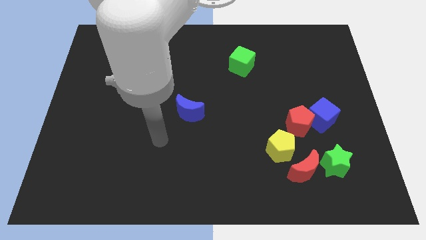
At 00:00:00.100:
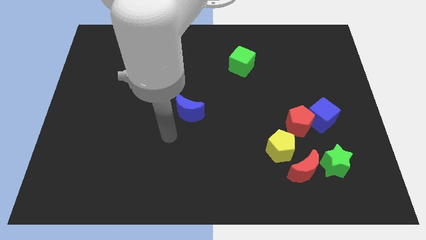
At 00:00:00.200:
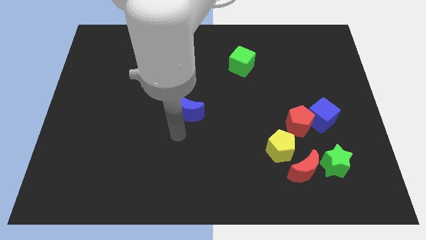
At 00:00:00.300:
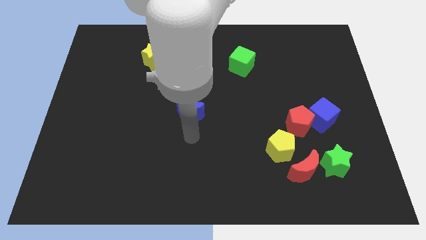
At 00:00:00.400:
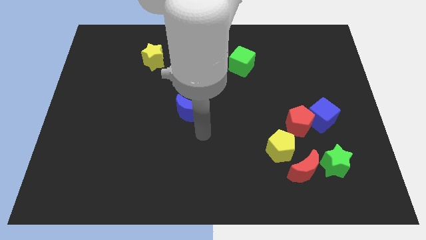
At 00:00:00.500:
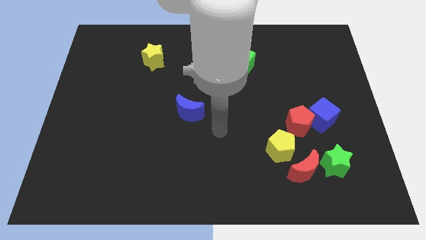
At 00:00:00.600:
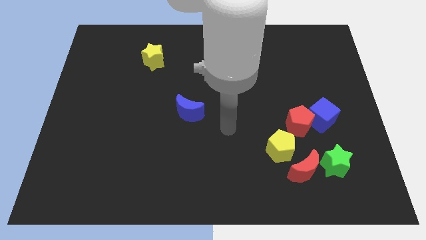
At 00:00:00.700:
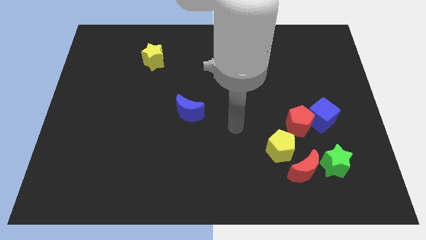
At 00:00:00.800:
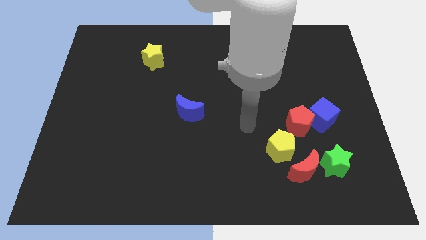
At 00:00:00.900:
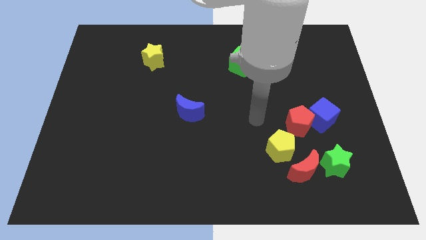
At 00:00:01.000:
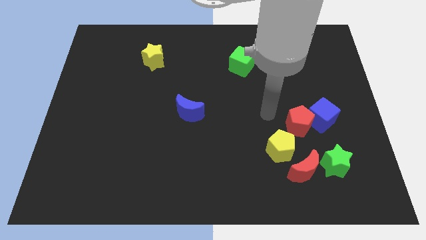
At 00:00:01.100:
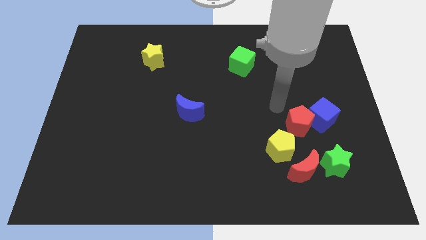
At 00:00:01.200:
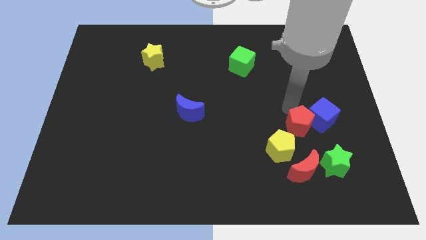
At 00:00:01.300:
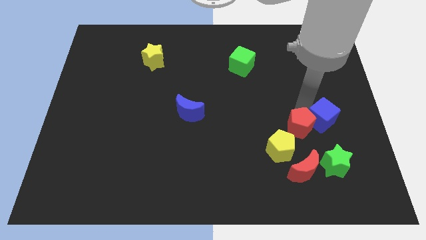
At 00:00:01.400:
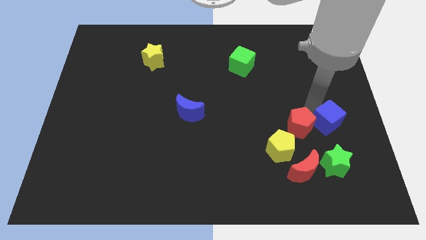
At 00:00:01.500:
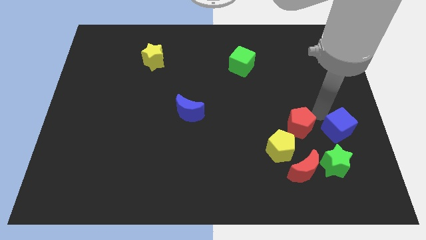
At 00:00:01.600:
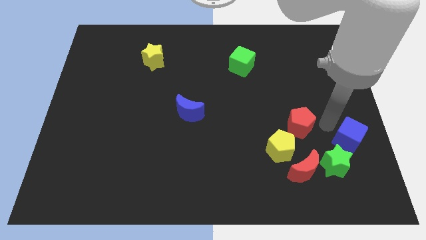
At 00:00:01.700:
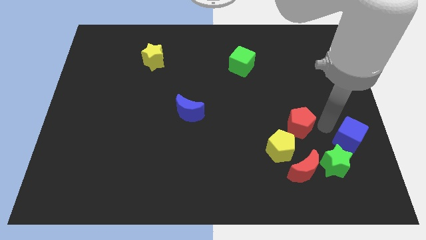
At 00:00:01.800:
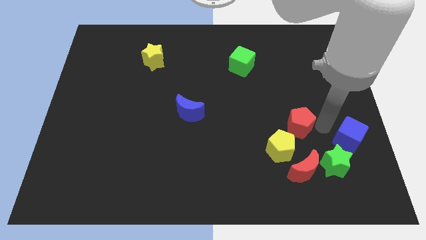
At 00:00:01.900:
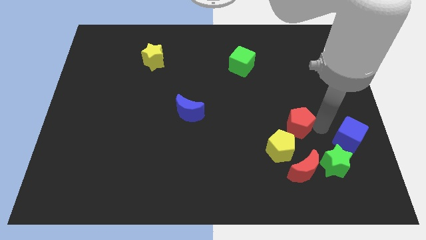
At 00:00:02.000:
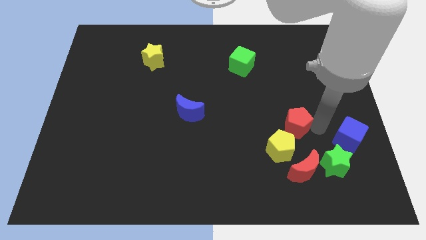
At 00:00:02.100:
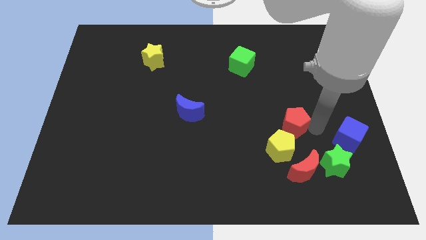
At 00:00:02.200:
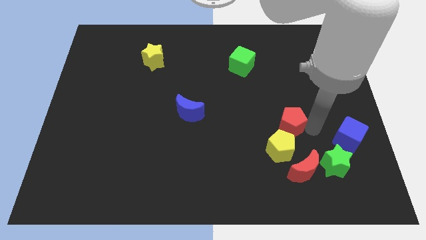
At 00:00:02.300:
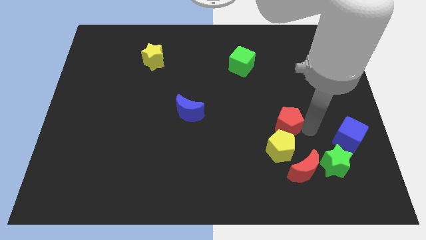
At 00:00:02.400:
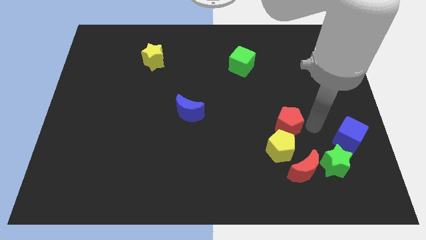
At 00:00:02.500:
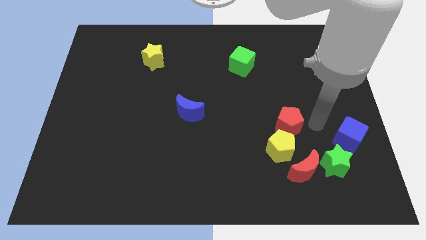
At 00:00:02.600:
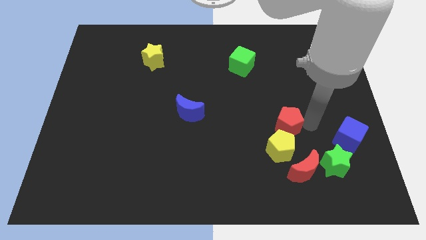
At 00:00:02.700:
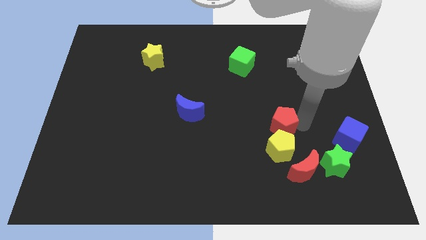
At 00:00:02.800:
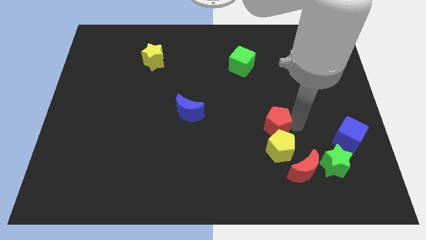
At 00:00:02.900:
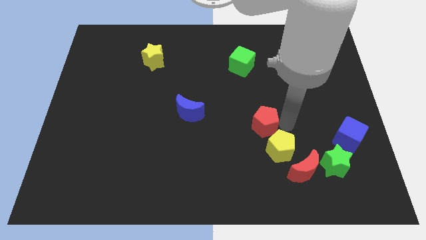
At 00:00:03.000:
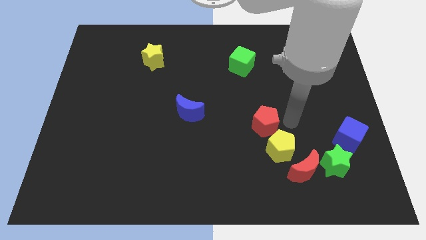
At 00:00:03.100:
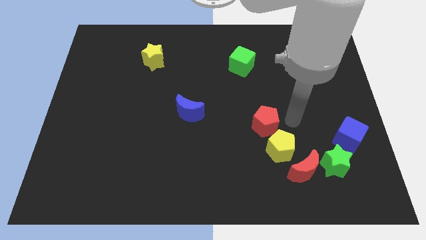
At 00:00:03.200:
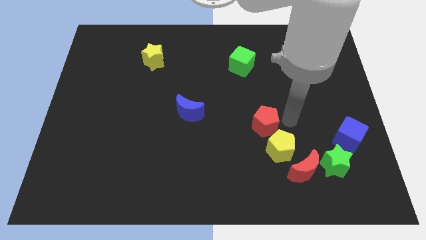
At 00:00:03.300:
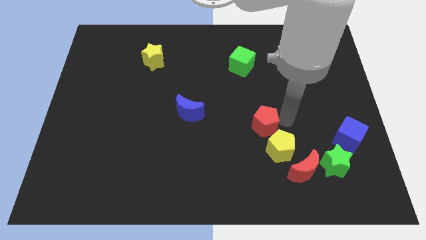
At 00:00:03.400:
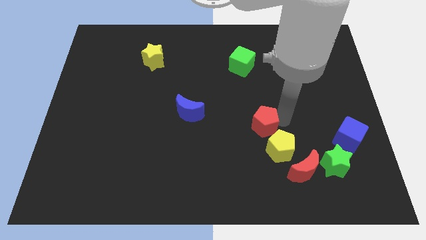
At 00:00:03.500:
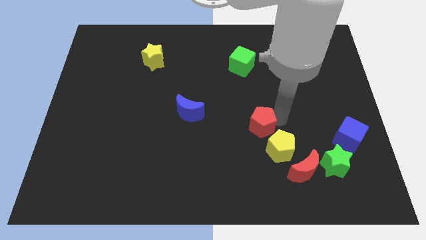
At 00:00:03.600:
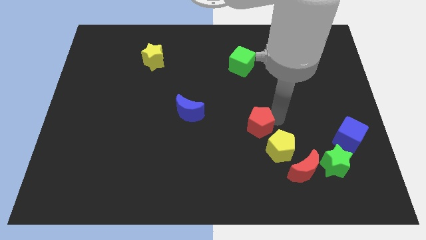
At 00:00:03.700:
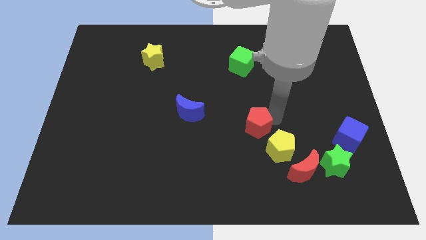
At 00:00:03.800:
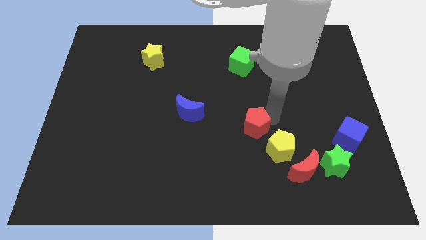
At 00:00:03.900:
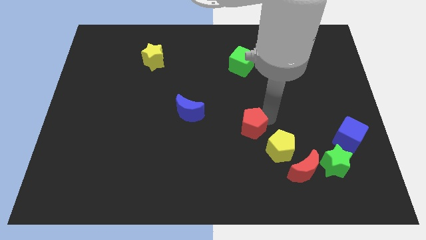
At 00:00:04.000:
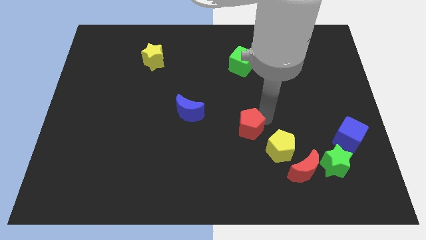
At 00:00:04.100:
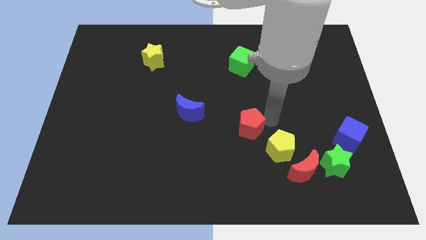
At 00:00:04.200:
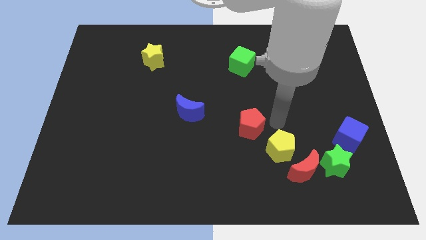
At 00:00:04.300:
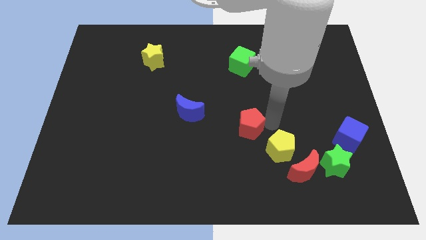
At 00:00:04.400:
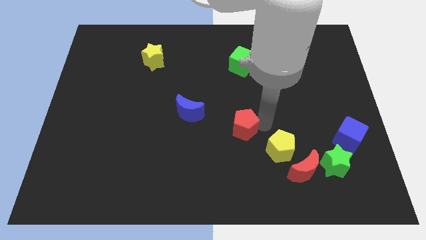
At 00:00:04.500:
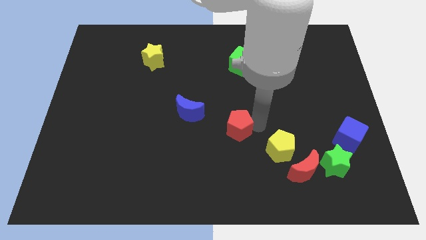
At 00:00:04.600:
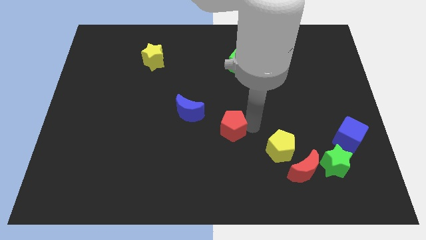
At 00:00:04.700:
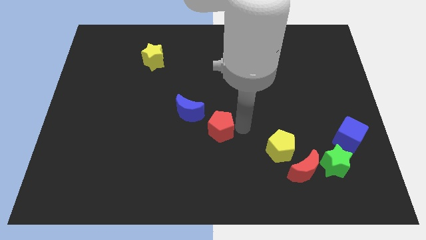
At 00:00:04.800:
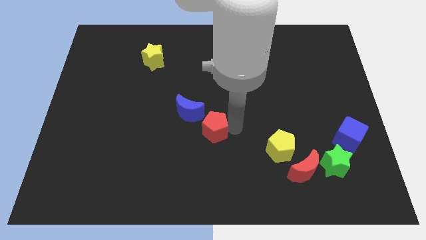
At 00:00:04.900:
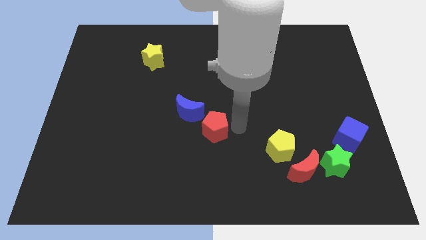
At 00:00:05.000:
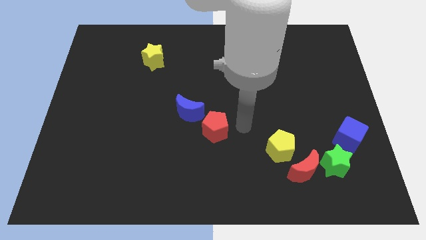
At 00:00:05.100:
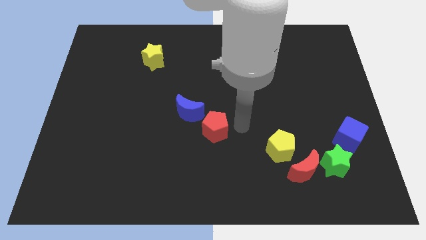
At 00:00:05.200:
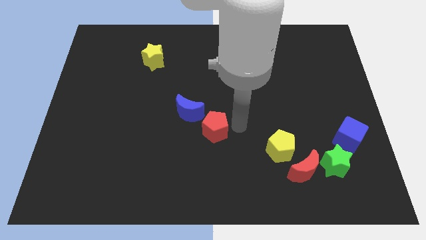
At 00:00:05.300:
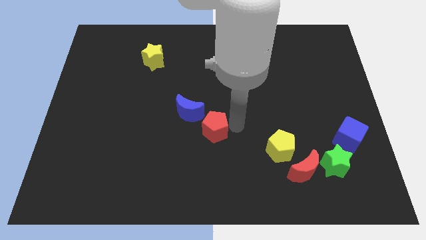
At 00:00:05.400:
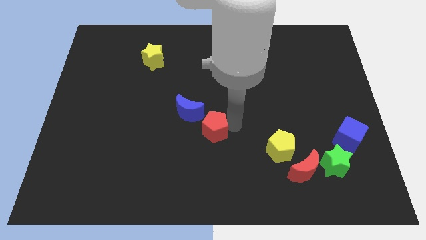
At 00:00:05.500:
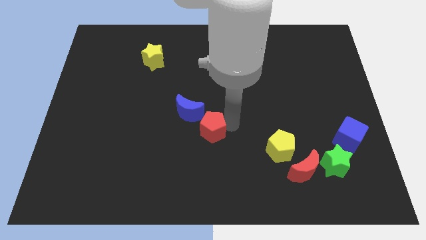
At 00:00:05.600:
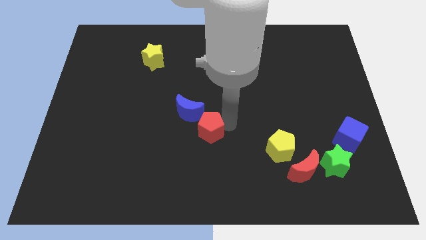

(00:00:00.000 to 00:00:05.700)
move the red pentagon to the left

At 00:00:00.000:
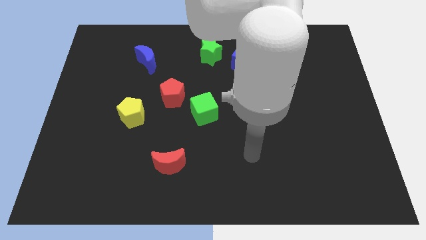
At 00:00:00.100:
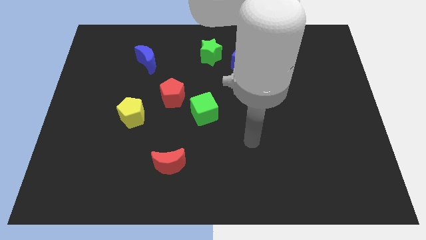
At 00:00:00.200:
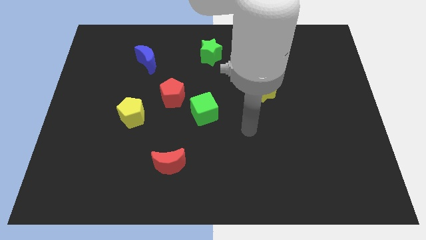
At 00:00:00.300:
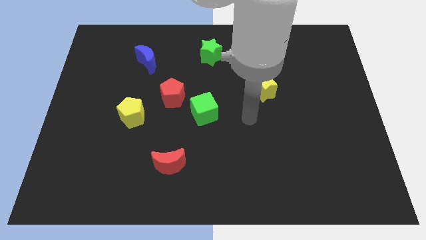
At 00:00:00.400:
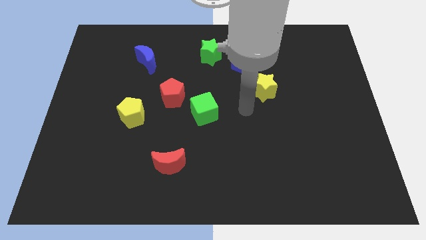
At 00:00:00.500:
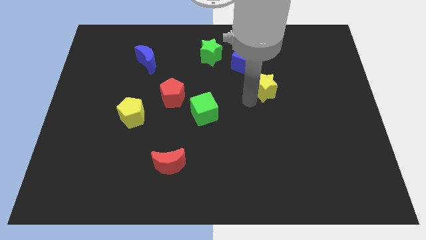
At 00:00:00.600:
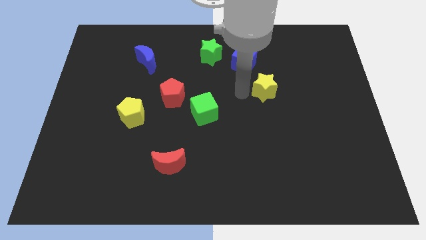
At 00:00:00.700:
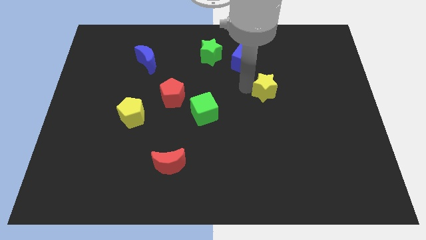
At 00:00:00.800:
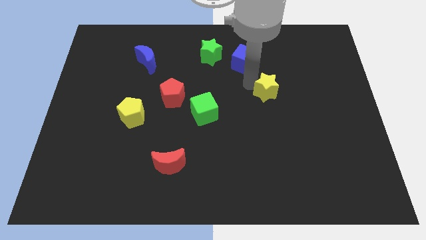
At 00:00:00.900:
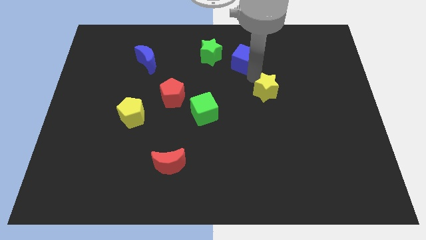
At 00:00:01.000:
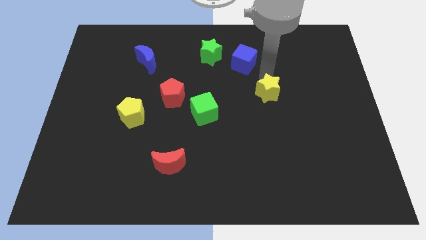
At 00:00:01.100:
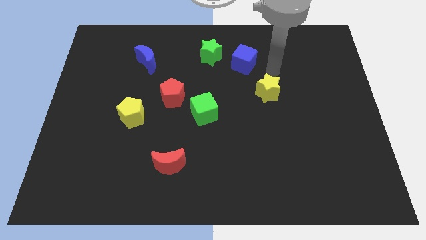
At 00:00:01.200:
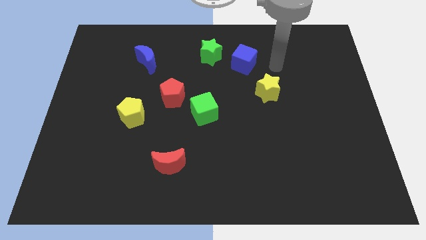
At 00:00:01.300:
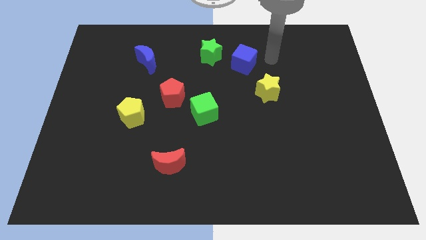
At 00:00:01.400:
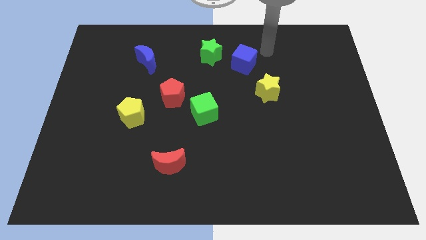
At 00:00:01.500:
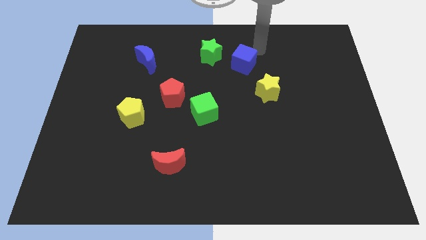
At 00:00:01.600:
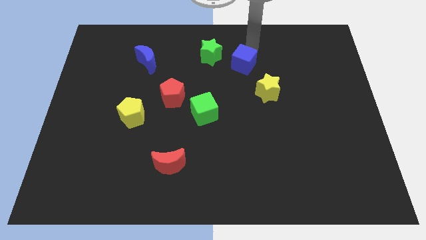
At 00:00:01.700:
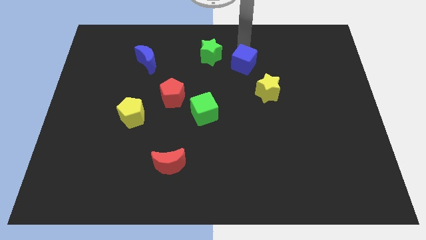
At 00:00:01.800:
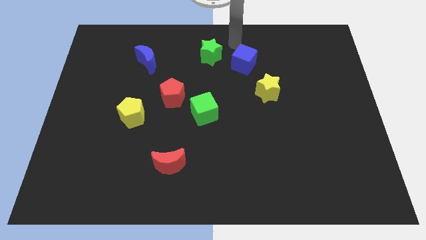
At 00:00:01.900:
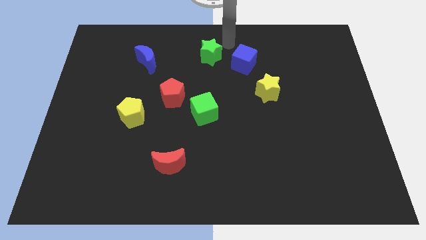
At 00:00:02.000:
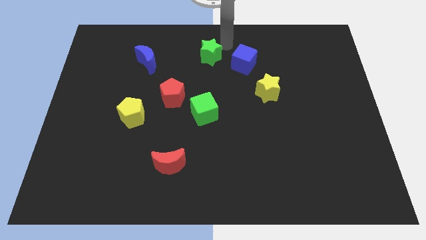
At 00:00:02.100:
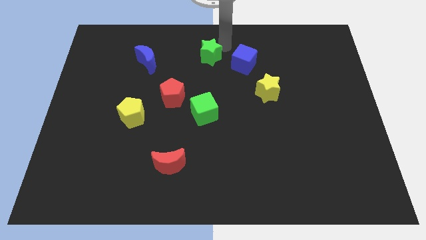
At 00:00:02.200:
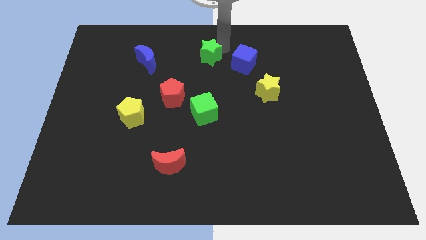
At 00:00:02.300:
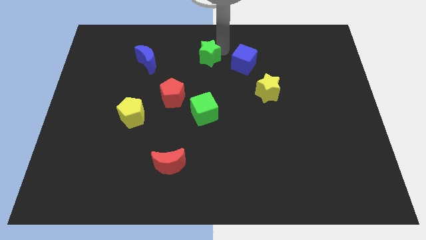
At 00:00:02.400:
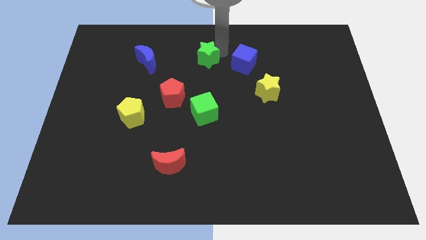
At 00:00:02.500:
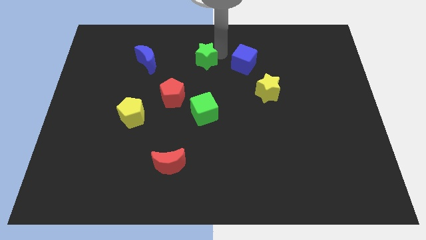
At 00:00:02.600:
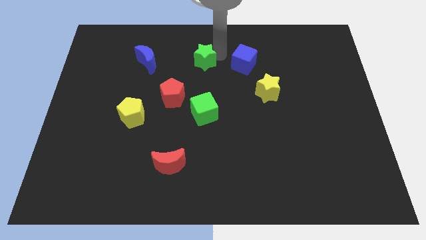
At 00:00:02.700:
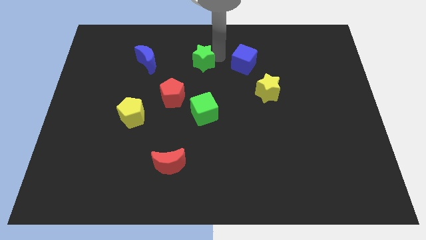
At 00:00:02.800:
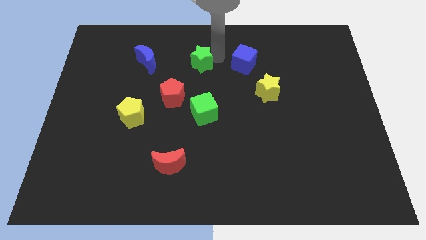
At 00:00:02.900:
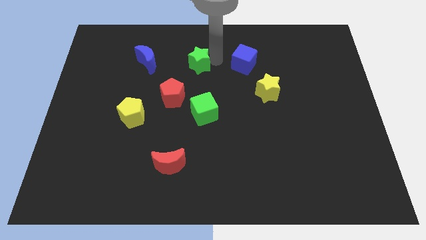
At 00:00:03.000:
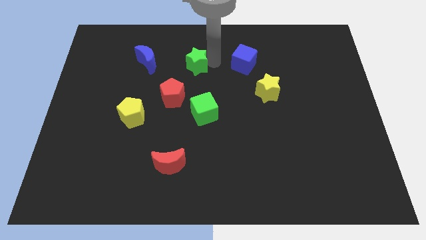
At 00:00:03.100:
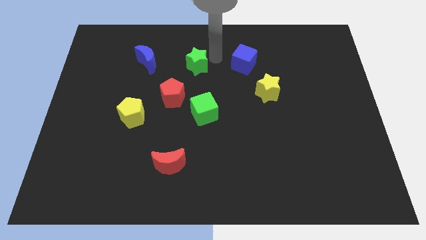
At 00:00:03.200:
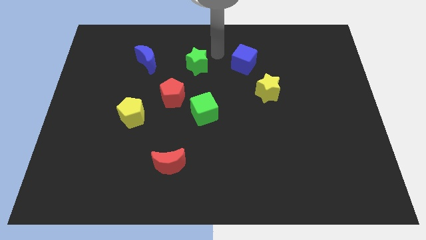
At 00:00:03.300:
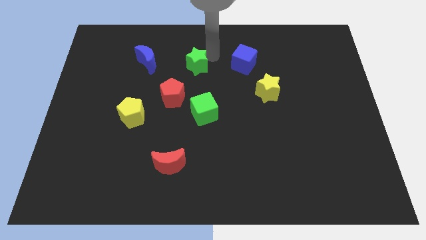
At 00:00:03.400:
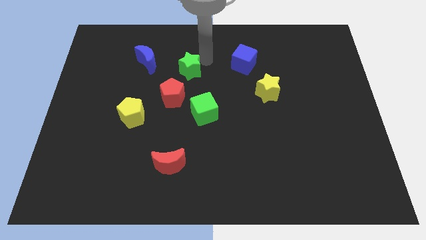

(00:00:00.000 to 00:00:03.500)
push the green star somewhat down and left
